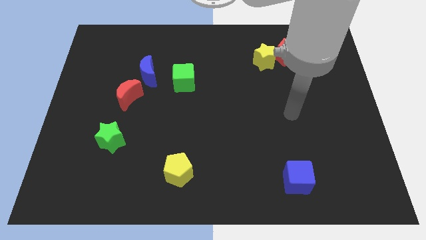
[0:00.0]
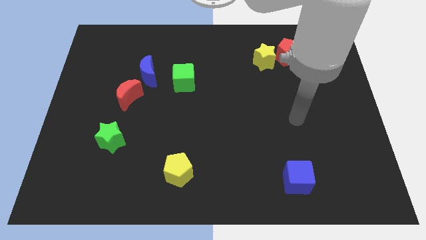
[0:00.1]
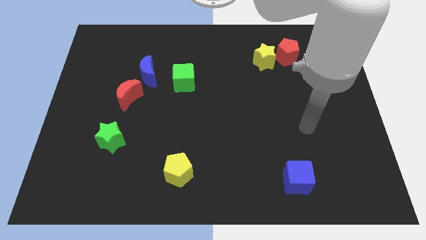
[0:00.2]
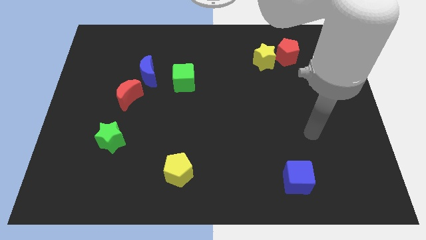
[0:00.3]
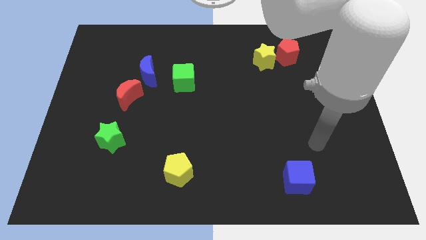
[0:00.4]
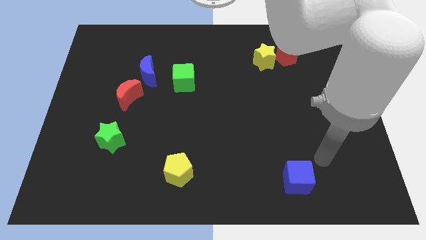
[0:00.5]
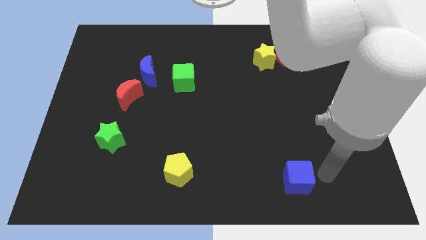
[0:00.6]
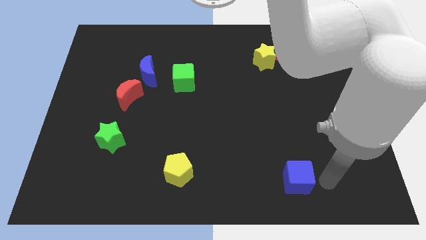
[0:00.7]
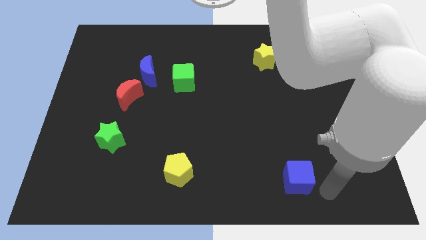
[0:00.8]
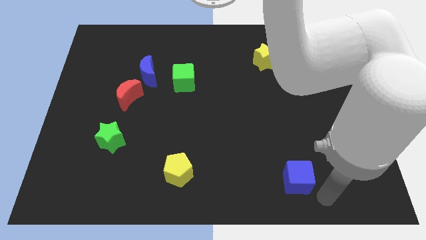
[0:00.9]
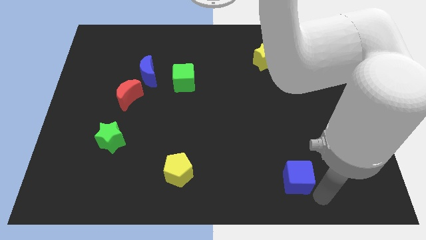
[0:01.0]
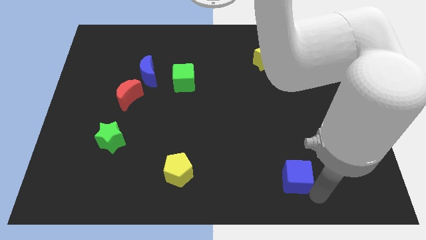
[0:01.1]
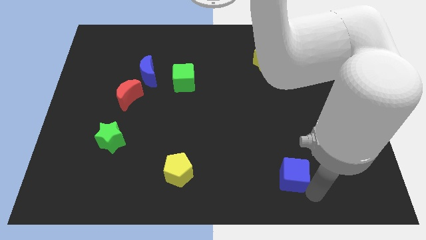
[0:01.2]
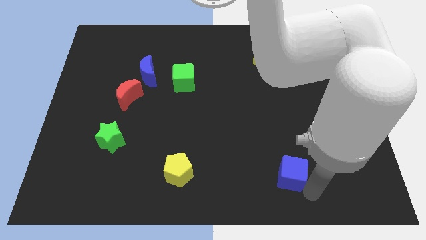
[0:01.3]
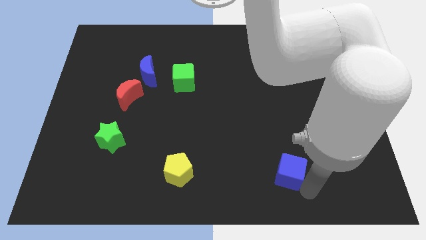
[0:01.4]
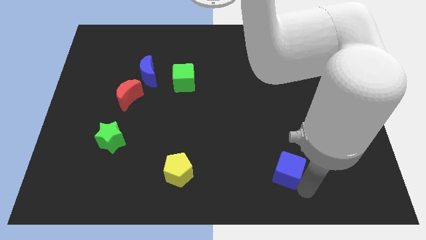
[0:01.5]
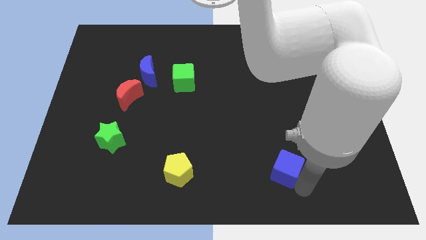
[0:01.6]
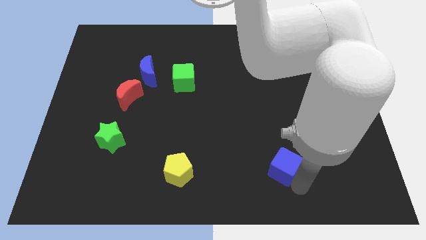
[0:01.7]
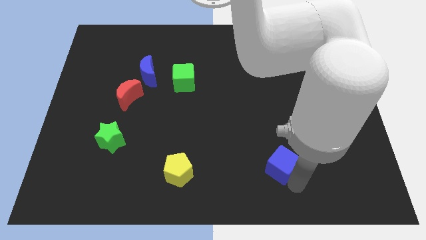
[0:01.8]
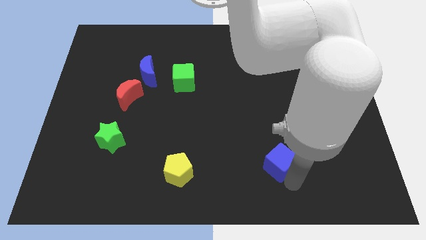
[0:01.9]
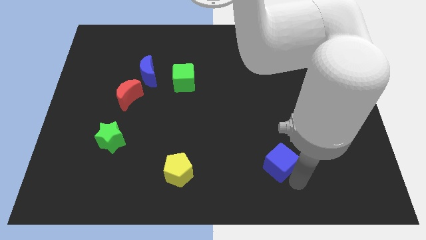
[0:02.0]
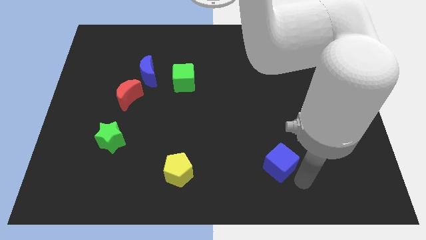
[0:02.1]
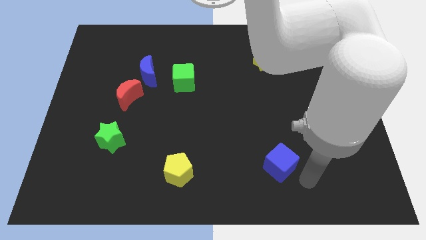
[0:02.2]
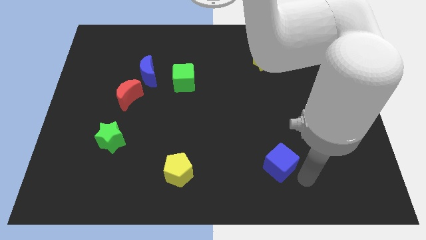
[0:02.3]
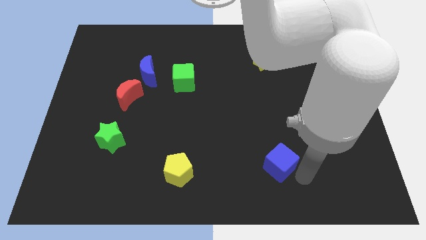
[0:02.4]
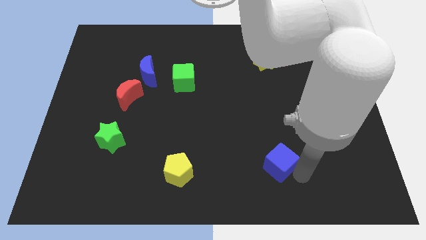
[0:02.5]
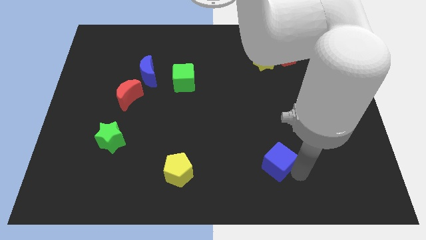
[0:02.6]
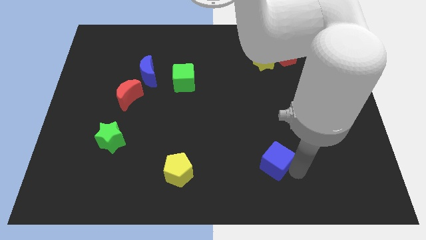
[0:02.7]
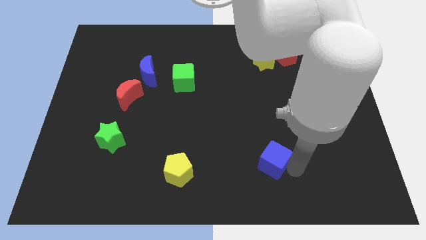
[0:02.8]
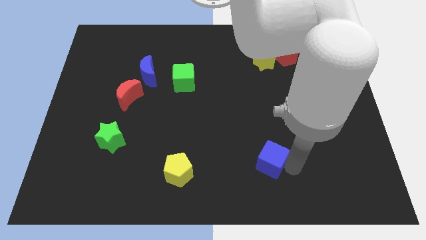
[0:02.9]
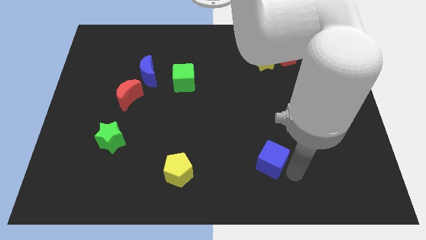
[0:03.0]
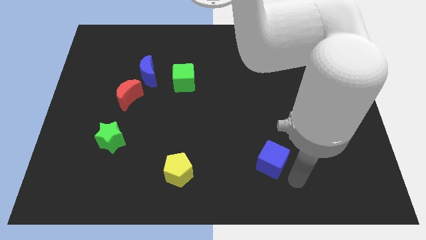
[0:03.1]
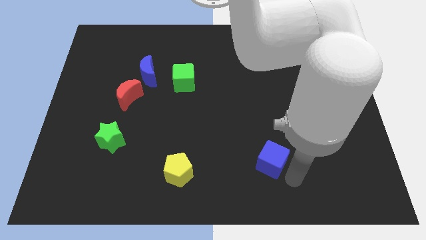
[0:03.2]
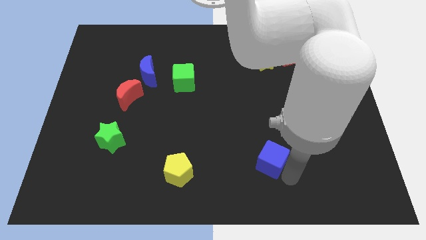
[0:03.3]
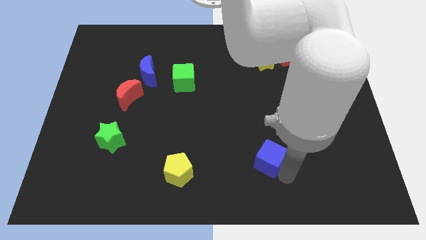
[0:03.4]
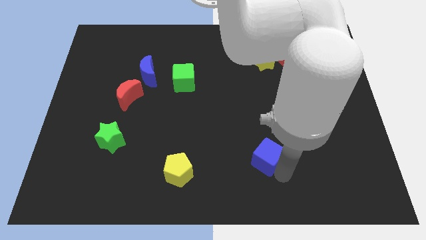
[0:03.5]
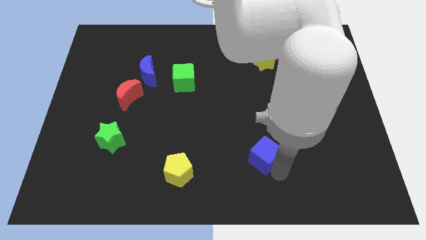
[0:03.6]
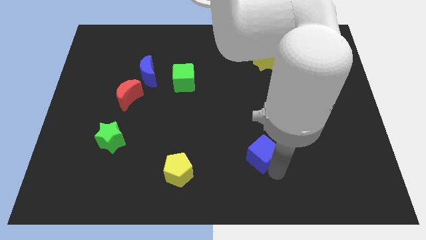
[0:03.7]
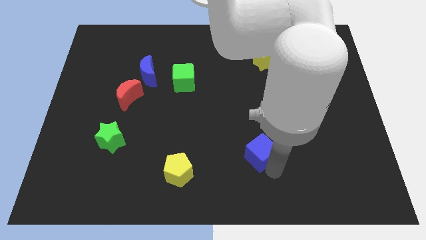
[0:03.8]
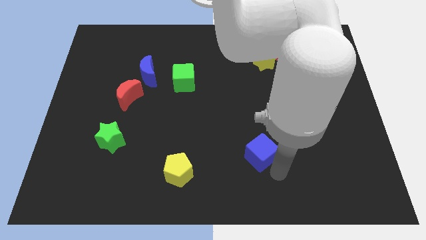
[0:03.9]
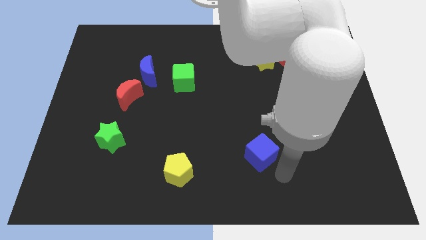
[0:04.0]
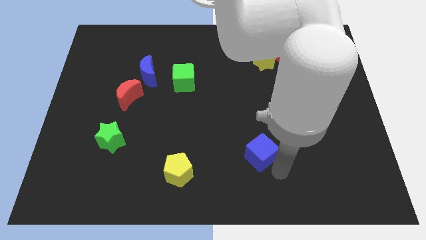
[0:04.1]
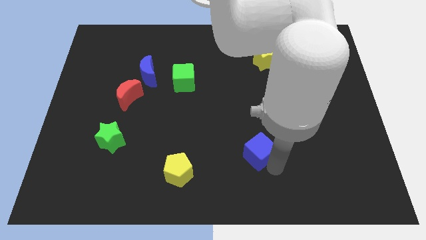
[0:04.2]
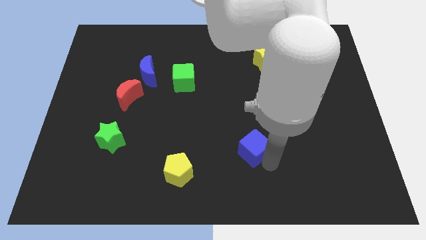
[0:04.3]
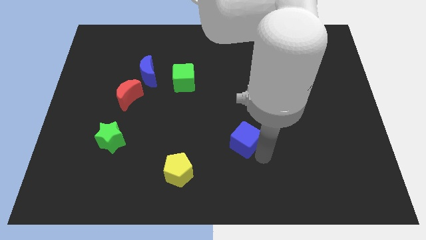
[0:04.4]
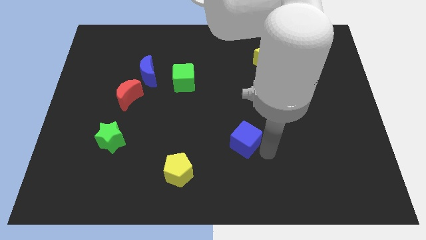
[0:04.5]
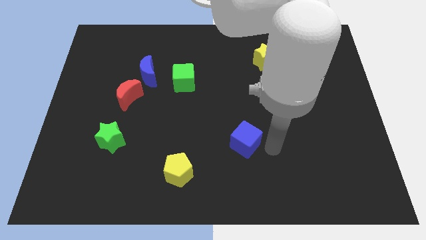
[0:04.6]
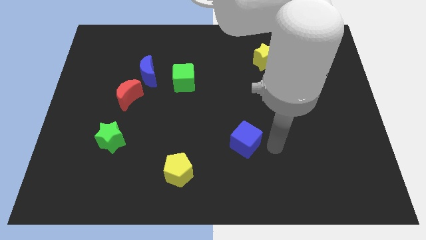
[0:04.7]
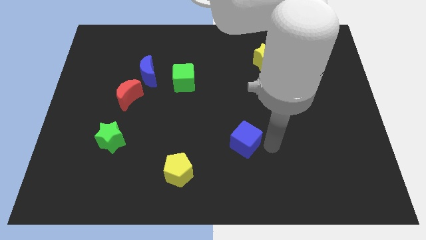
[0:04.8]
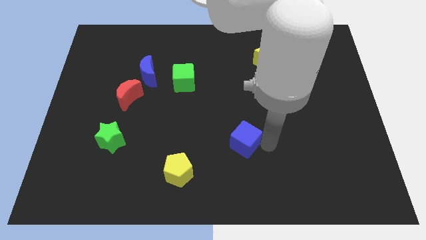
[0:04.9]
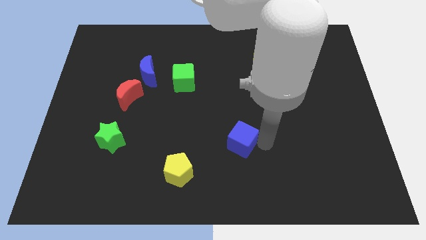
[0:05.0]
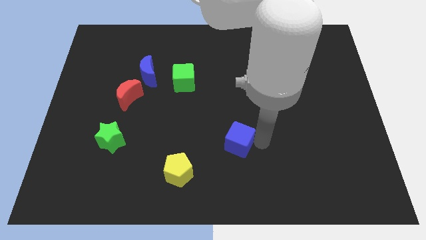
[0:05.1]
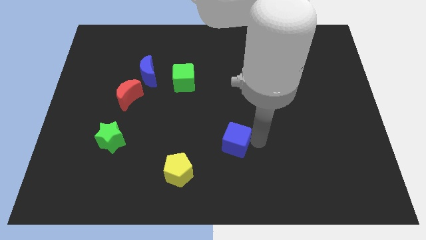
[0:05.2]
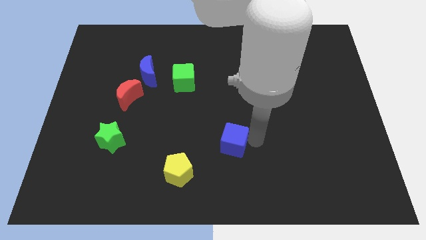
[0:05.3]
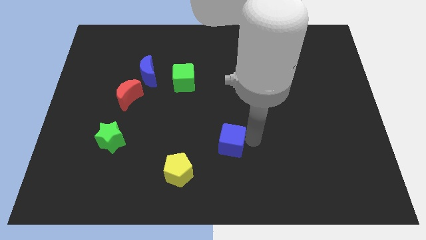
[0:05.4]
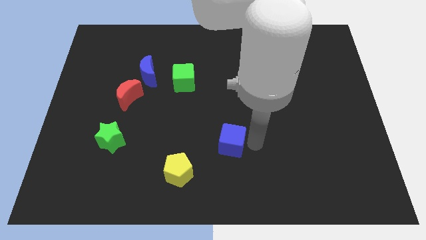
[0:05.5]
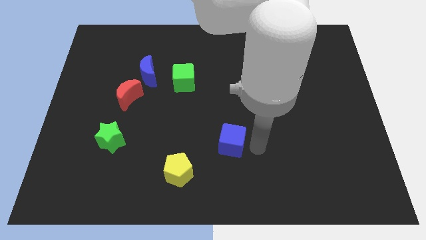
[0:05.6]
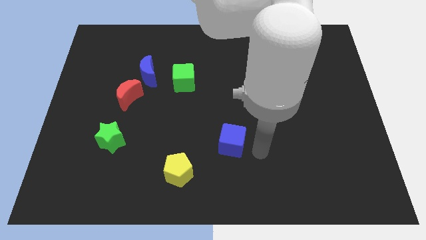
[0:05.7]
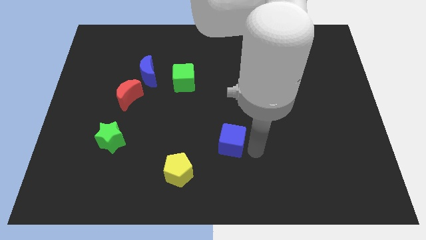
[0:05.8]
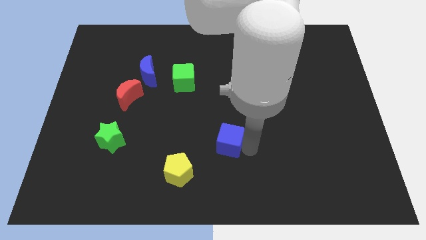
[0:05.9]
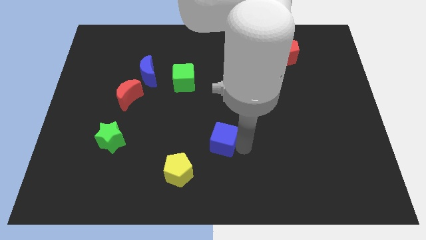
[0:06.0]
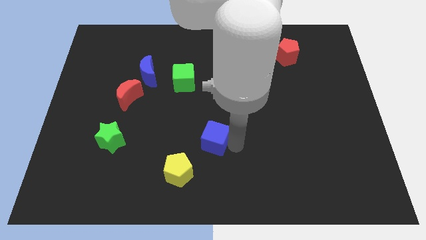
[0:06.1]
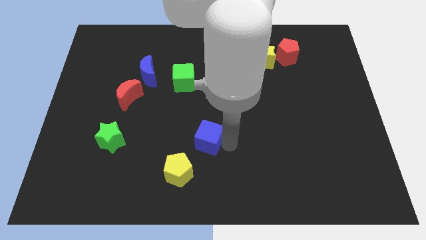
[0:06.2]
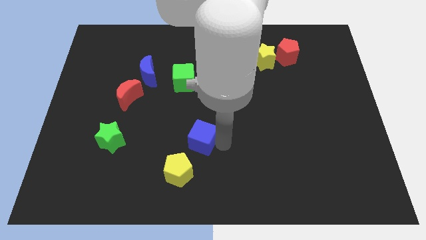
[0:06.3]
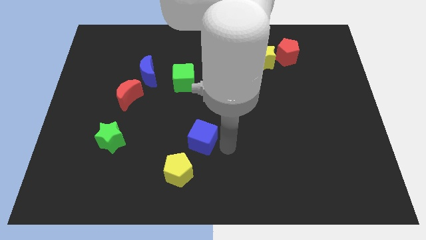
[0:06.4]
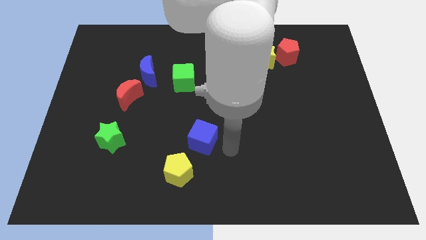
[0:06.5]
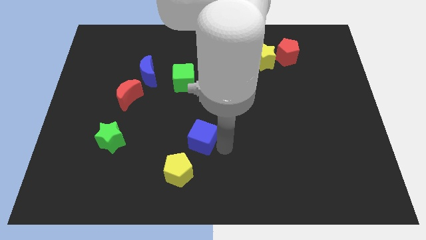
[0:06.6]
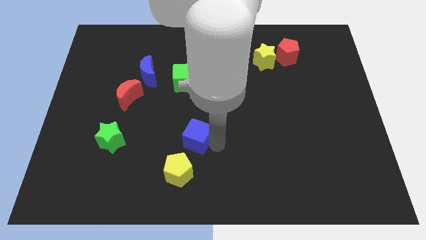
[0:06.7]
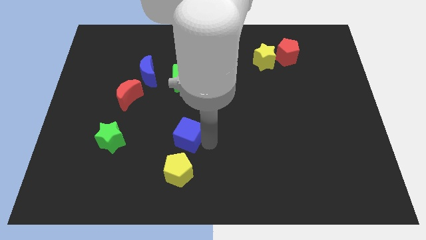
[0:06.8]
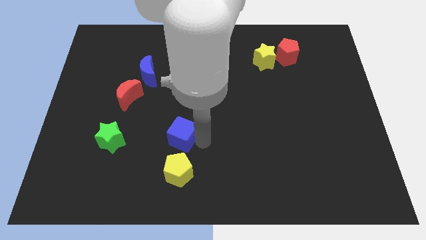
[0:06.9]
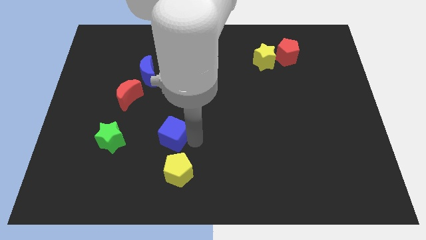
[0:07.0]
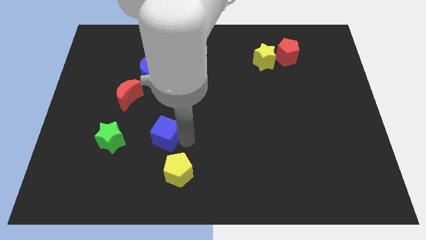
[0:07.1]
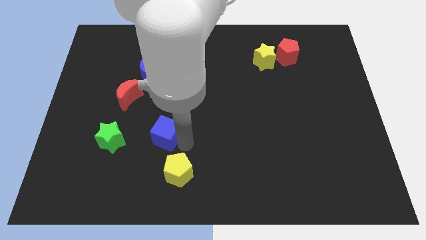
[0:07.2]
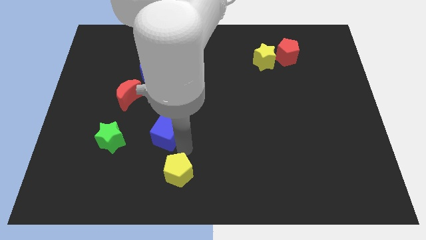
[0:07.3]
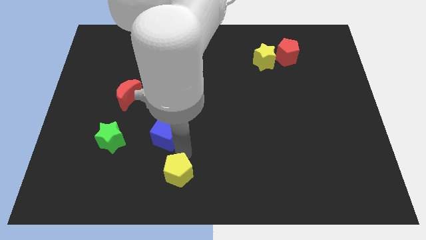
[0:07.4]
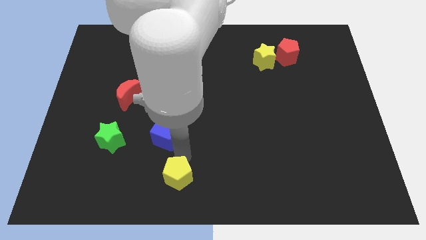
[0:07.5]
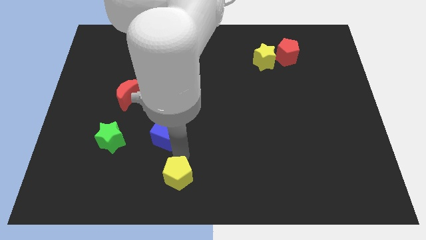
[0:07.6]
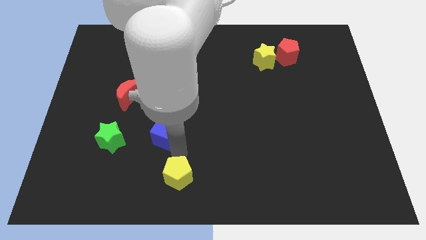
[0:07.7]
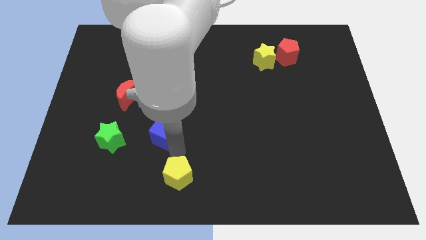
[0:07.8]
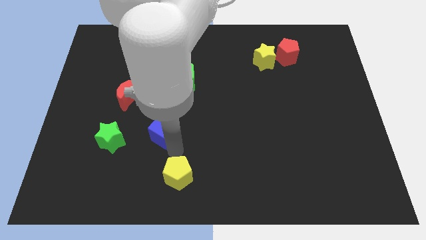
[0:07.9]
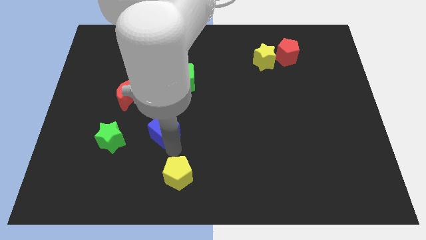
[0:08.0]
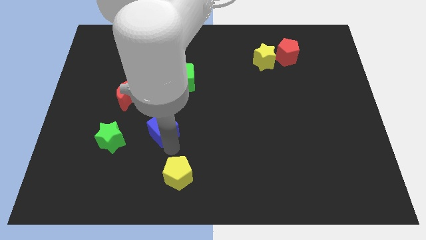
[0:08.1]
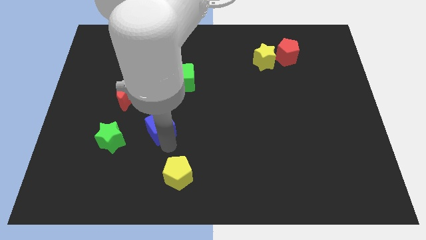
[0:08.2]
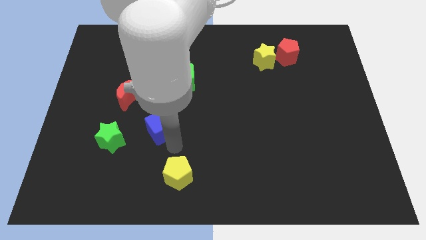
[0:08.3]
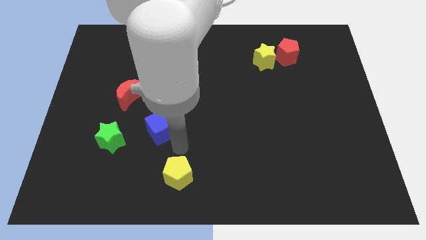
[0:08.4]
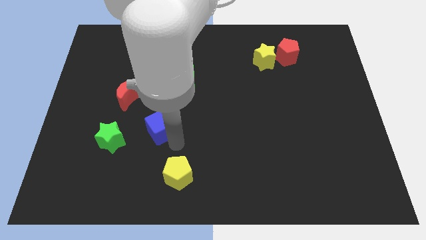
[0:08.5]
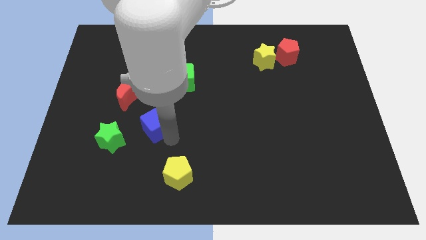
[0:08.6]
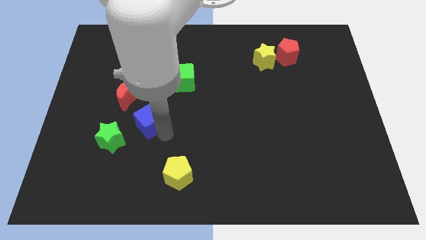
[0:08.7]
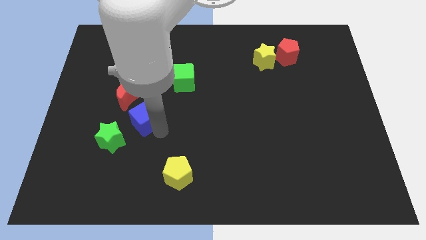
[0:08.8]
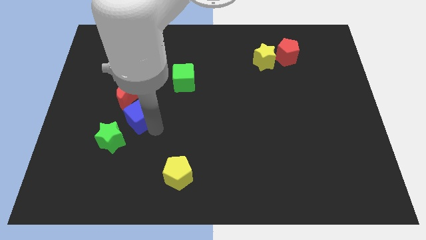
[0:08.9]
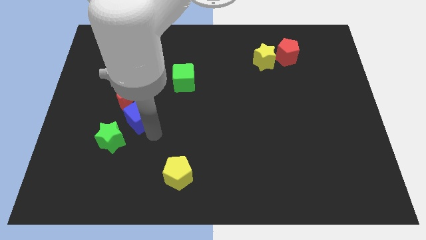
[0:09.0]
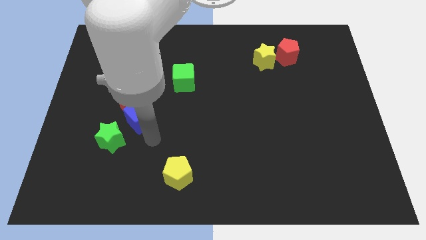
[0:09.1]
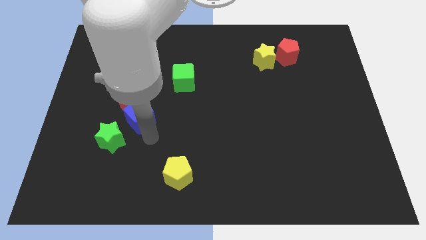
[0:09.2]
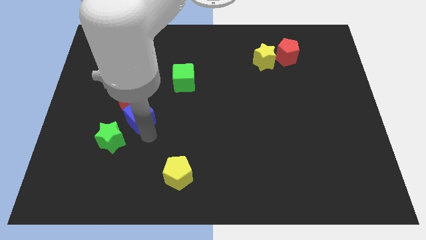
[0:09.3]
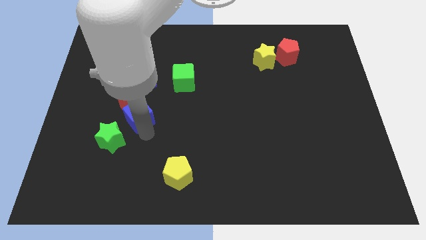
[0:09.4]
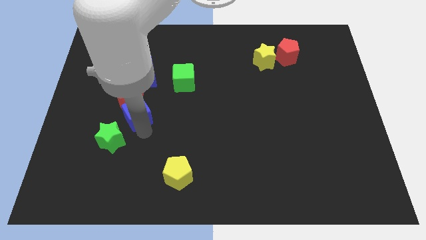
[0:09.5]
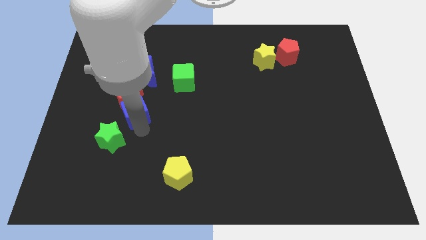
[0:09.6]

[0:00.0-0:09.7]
push the blue cube close to the red moon
